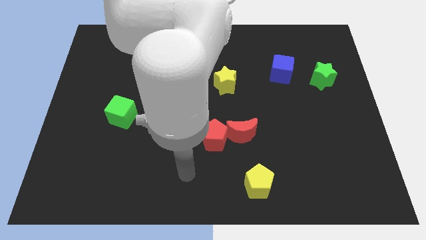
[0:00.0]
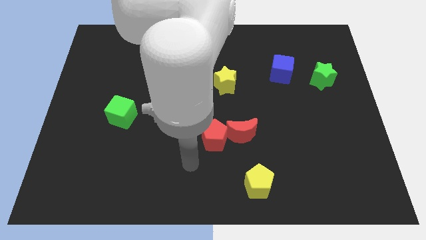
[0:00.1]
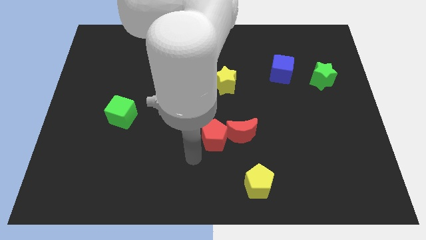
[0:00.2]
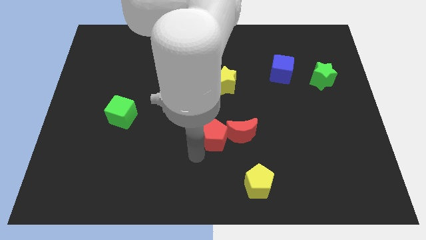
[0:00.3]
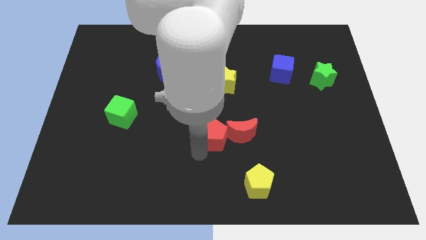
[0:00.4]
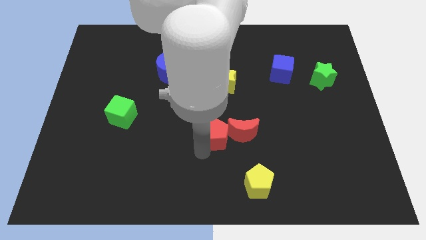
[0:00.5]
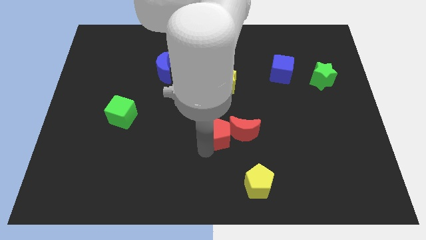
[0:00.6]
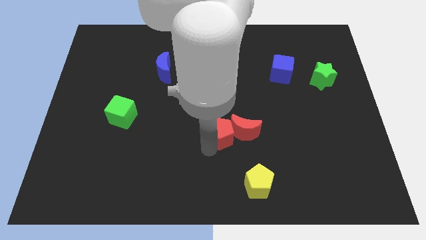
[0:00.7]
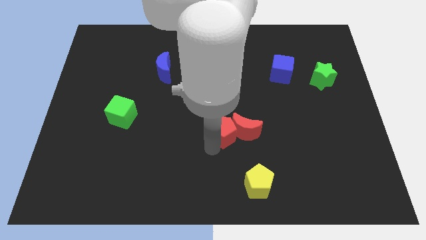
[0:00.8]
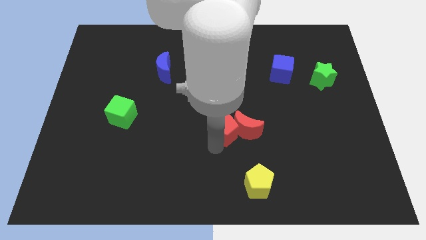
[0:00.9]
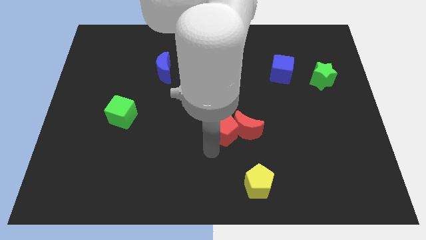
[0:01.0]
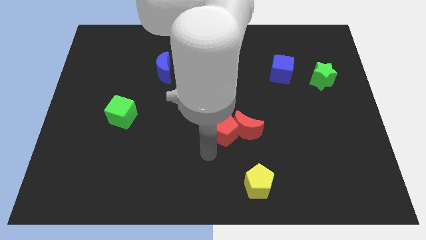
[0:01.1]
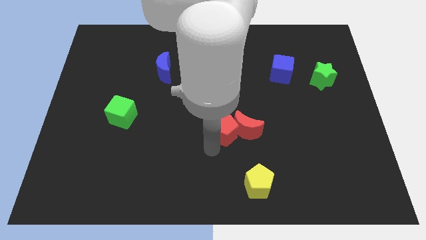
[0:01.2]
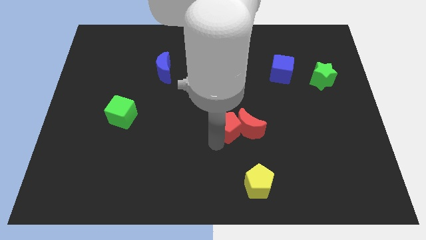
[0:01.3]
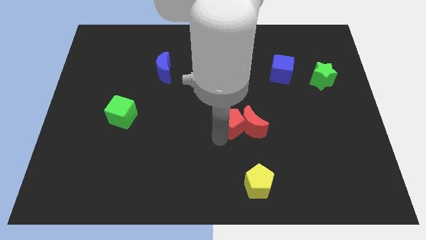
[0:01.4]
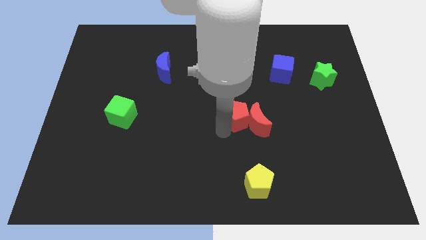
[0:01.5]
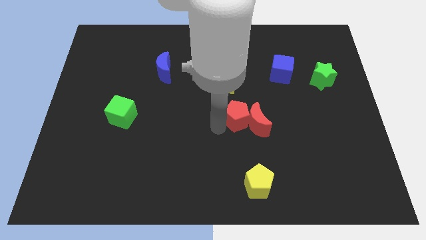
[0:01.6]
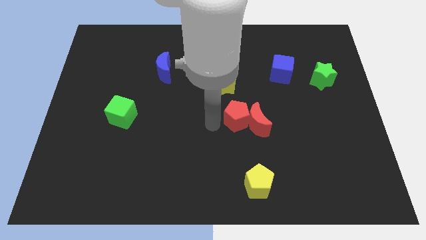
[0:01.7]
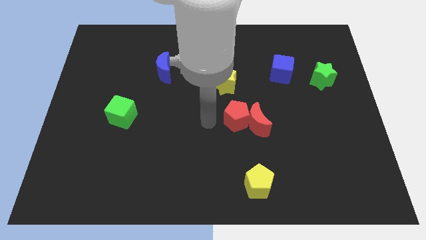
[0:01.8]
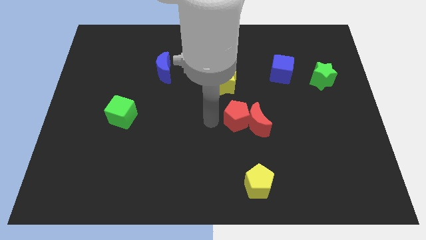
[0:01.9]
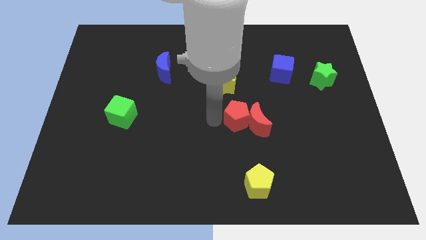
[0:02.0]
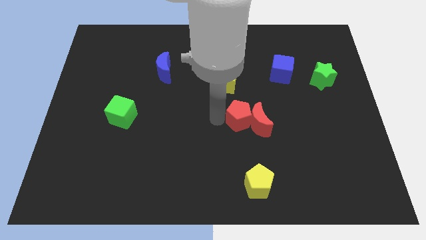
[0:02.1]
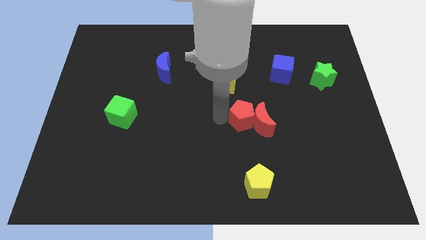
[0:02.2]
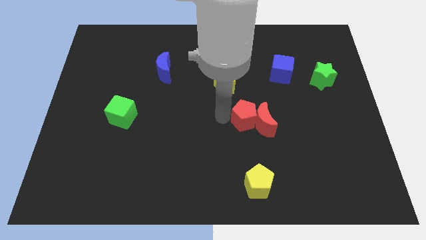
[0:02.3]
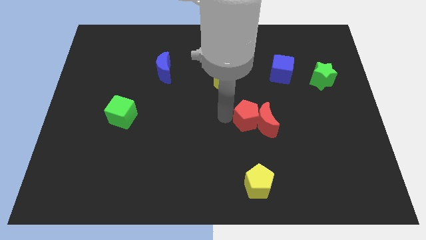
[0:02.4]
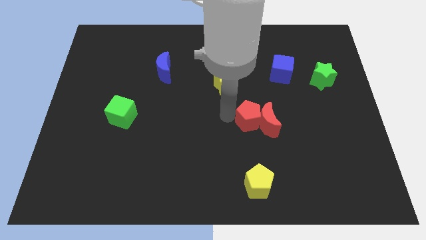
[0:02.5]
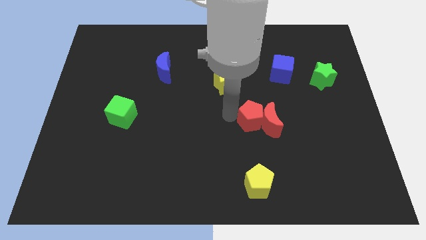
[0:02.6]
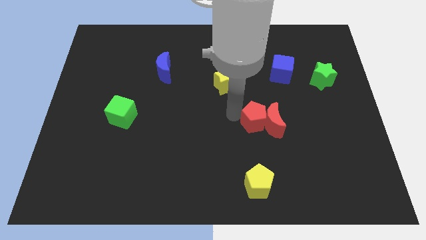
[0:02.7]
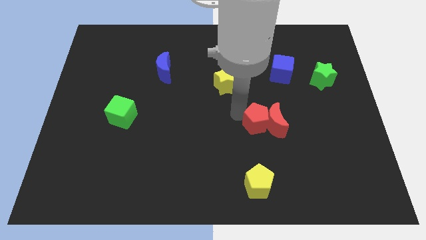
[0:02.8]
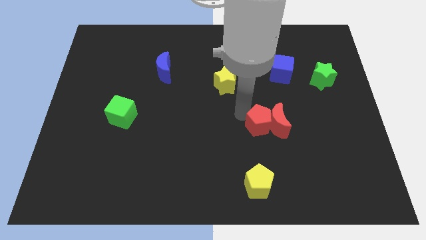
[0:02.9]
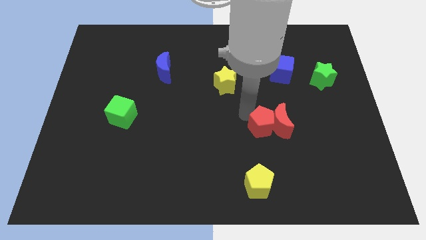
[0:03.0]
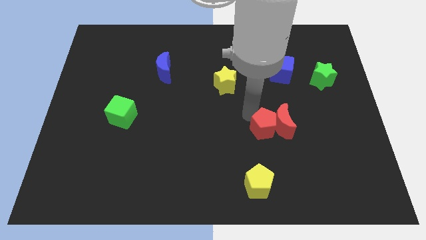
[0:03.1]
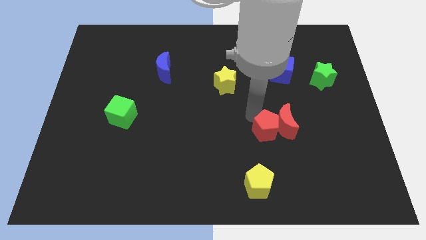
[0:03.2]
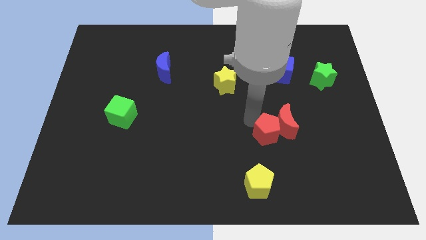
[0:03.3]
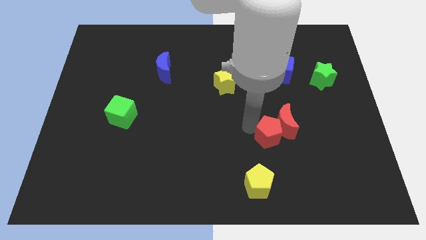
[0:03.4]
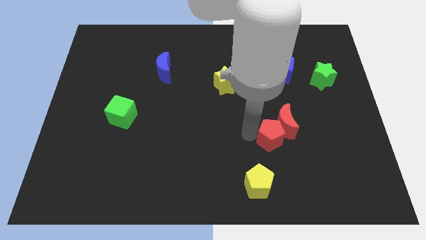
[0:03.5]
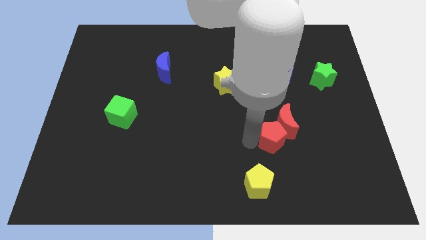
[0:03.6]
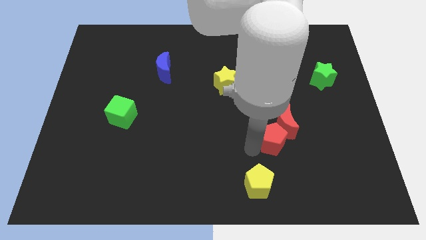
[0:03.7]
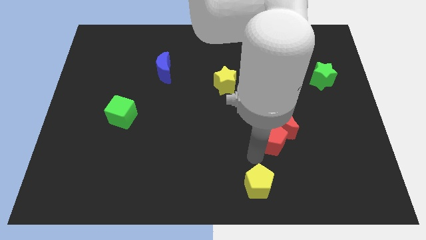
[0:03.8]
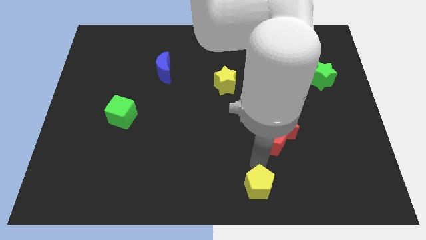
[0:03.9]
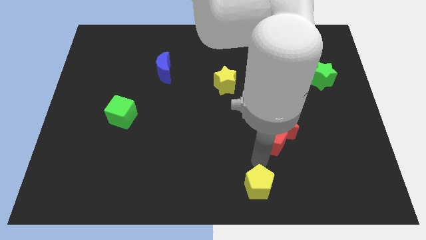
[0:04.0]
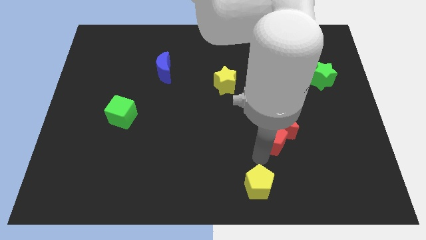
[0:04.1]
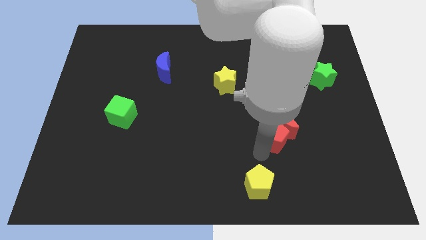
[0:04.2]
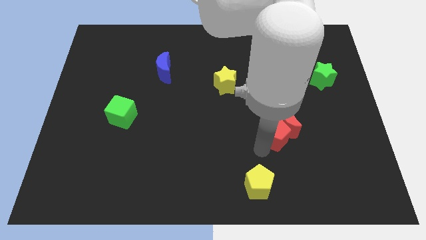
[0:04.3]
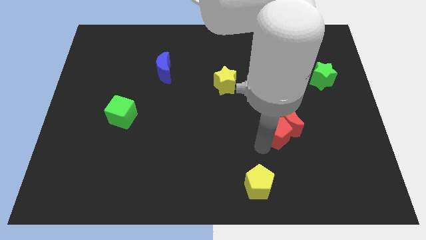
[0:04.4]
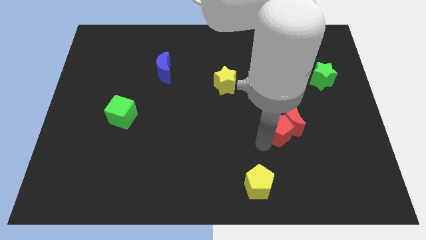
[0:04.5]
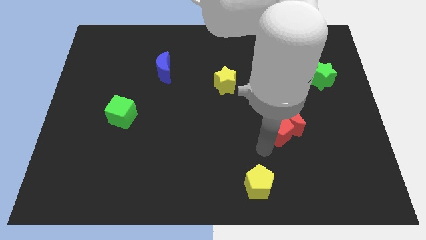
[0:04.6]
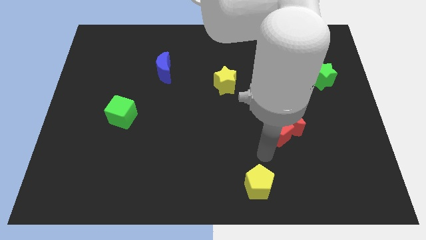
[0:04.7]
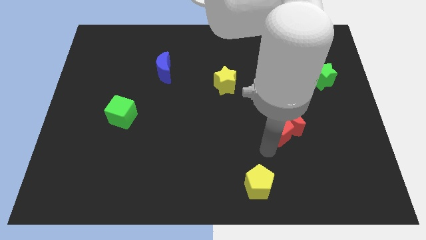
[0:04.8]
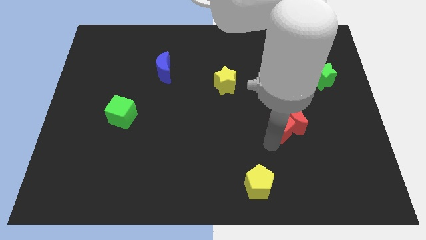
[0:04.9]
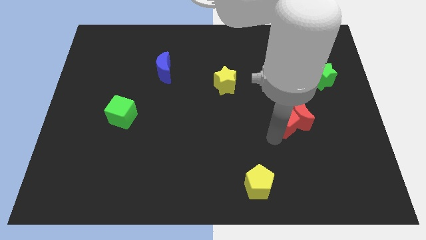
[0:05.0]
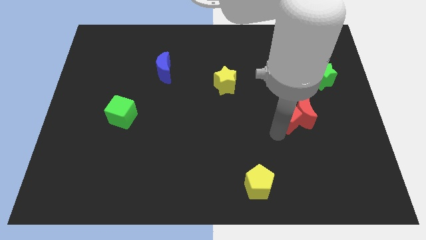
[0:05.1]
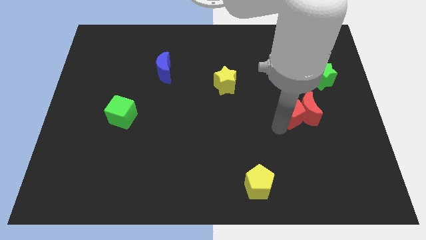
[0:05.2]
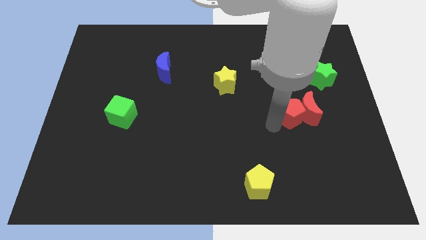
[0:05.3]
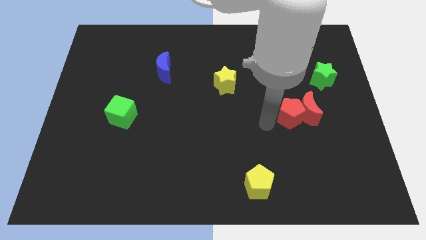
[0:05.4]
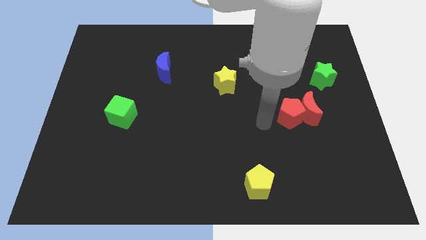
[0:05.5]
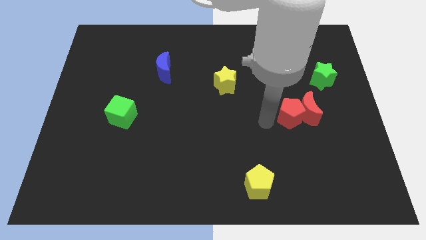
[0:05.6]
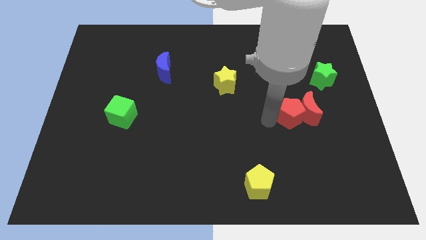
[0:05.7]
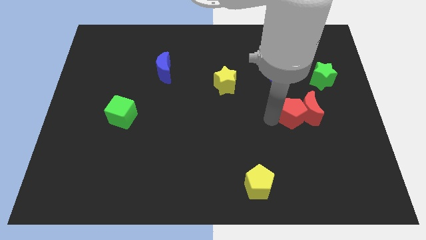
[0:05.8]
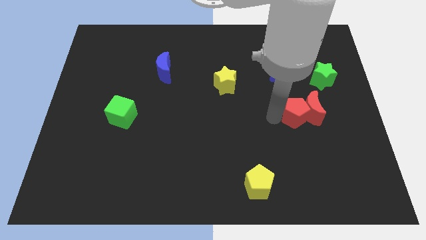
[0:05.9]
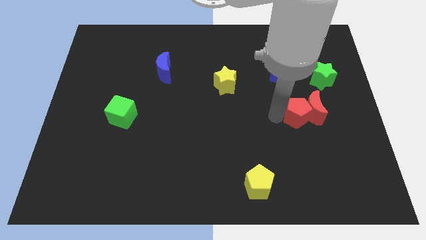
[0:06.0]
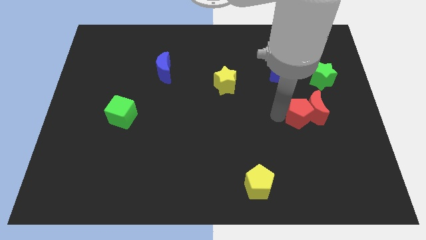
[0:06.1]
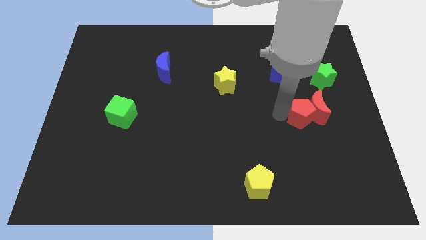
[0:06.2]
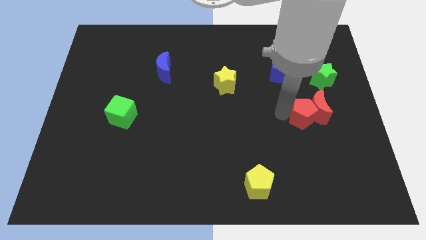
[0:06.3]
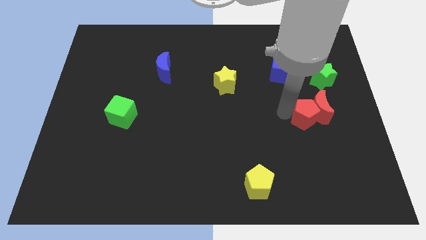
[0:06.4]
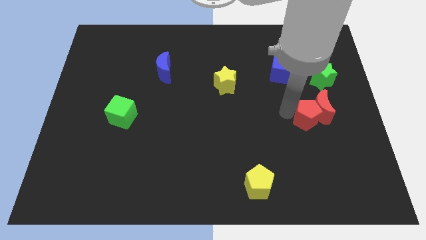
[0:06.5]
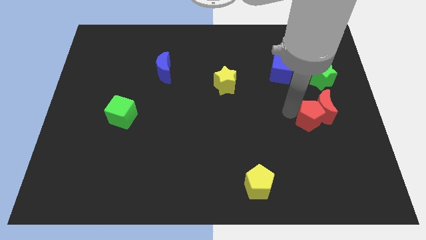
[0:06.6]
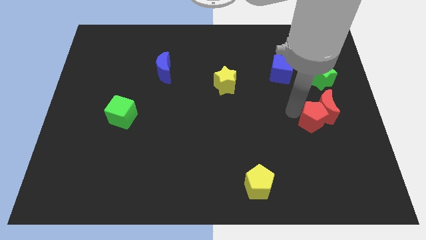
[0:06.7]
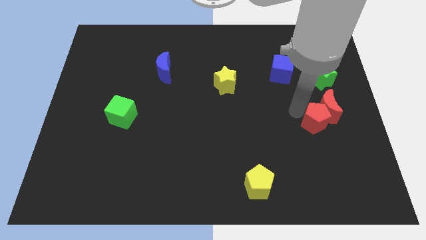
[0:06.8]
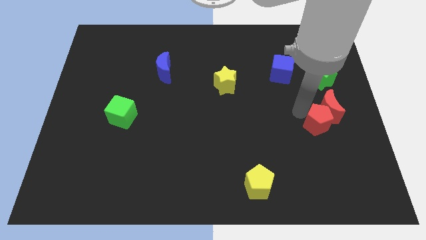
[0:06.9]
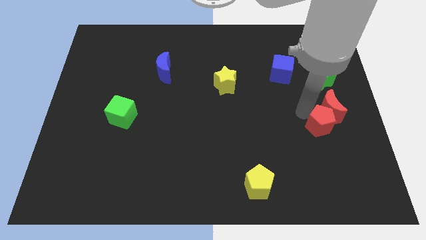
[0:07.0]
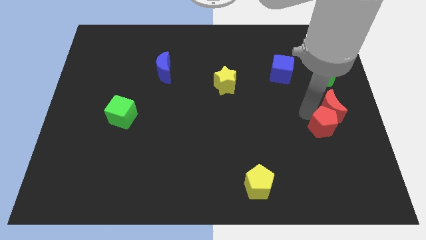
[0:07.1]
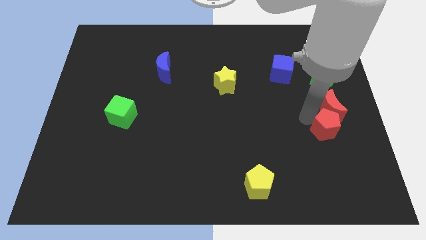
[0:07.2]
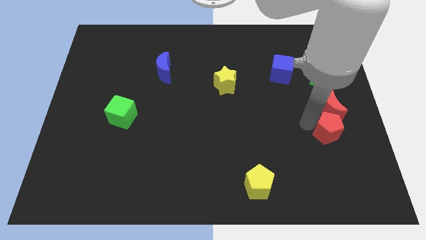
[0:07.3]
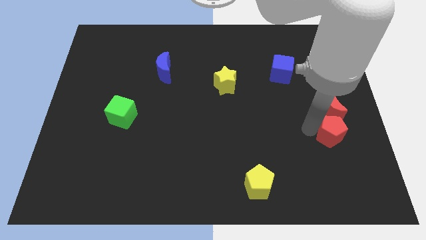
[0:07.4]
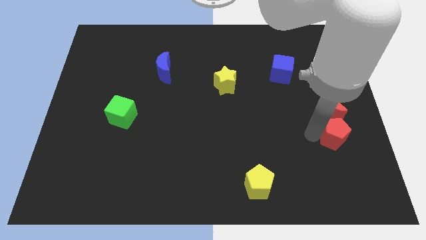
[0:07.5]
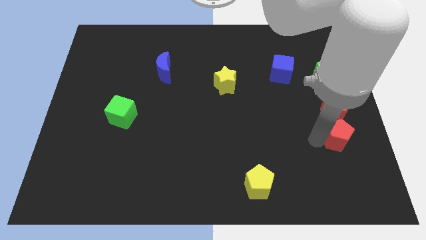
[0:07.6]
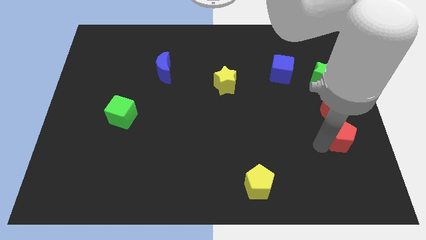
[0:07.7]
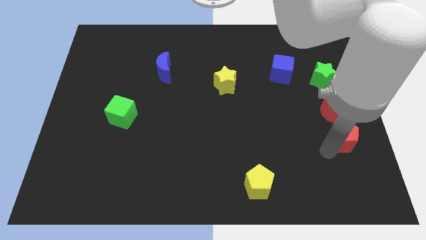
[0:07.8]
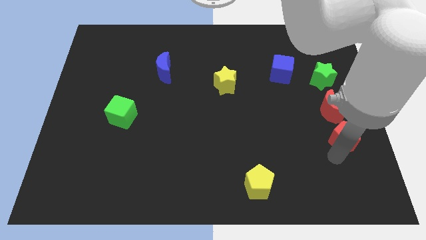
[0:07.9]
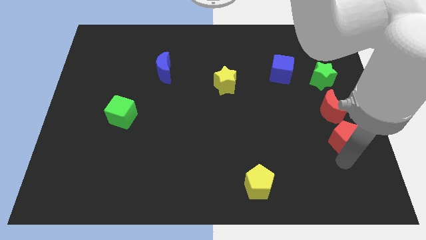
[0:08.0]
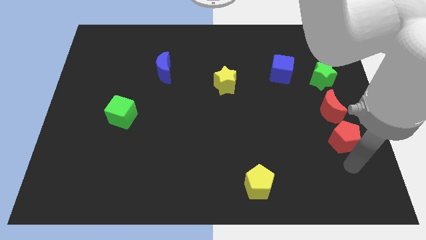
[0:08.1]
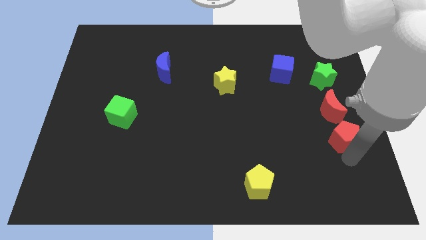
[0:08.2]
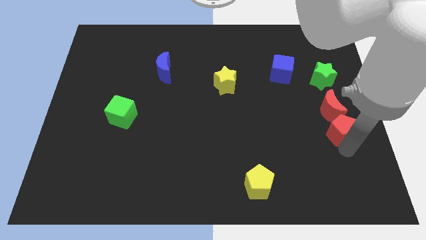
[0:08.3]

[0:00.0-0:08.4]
put the red pentagon to the center right
